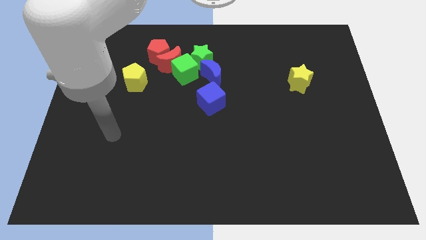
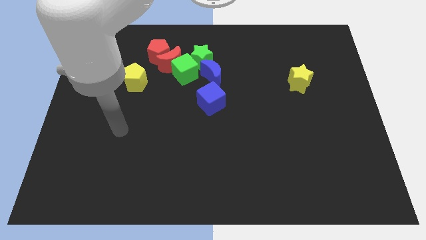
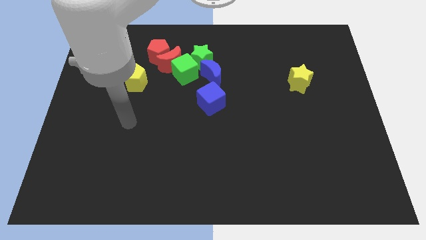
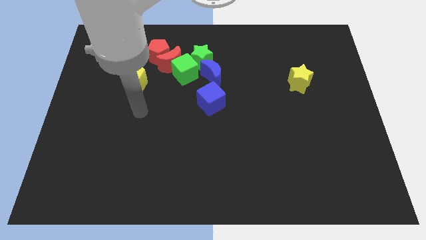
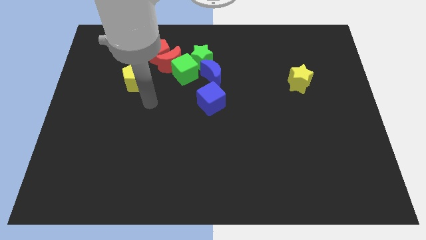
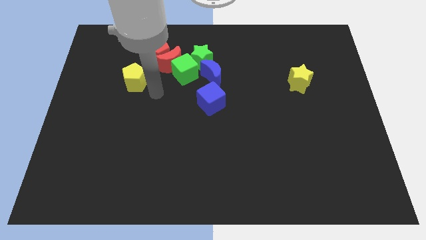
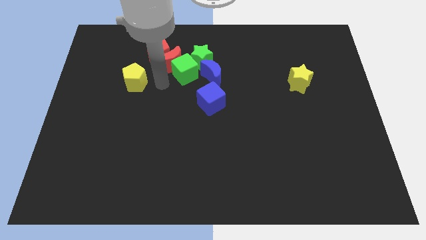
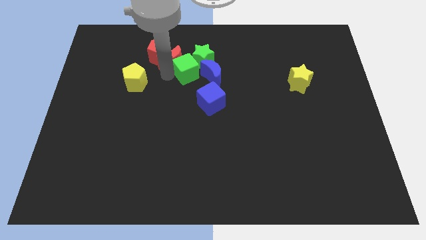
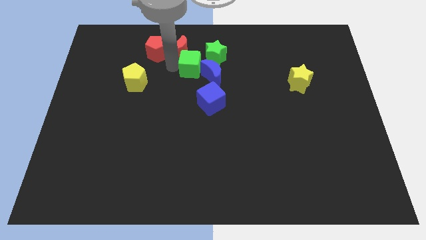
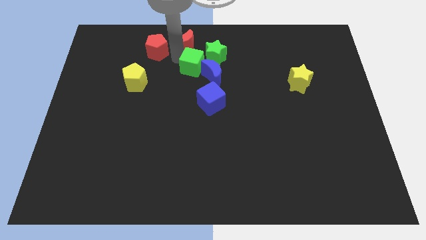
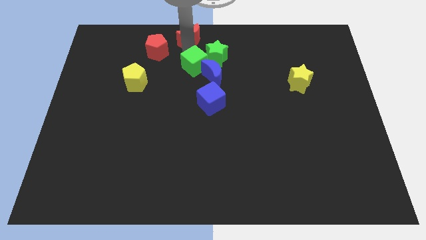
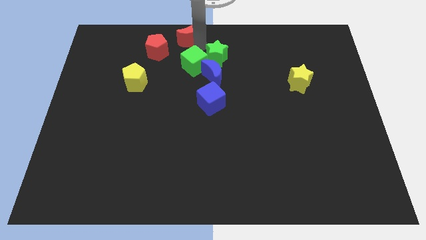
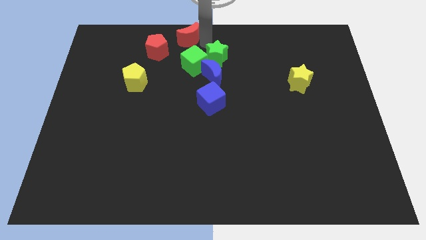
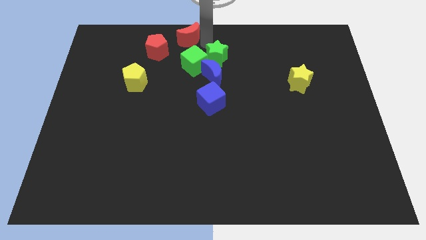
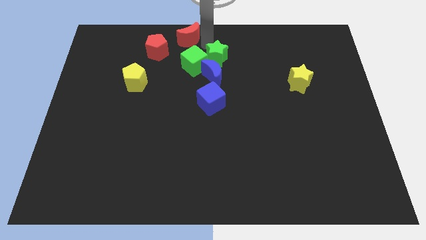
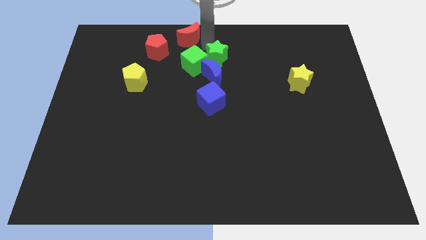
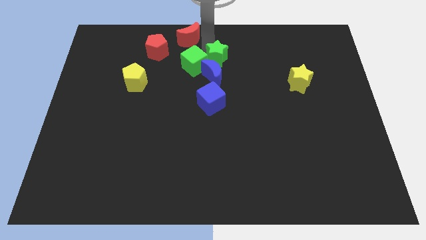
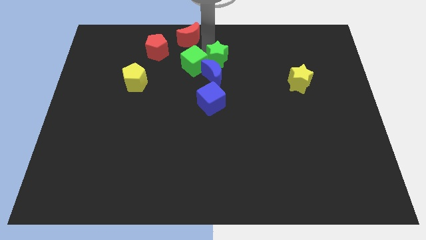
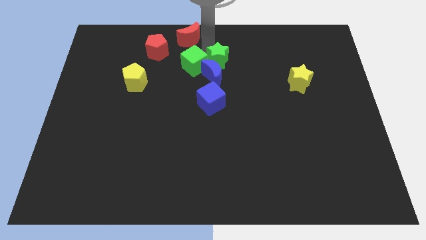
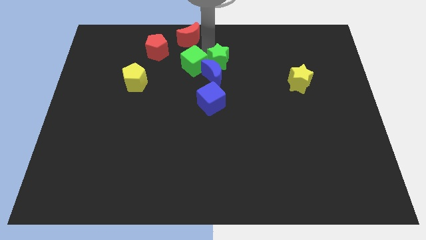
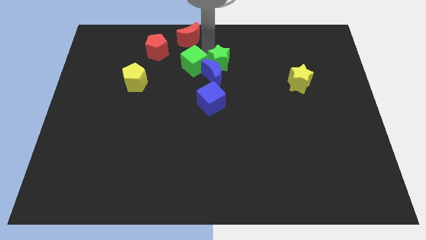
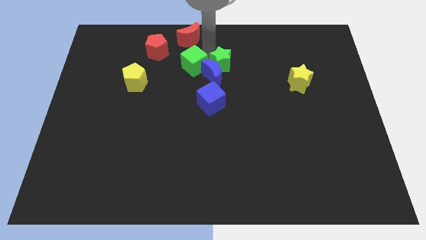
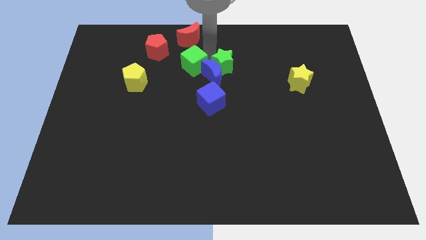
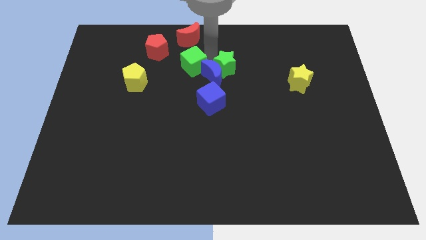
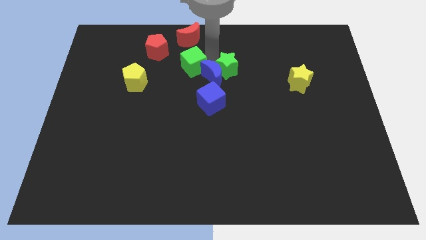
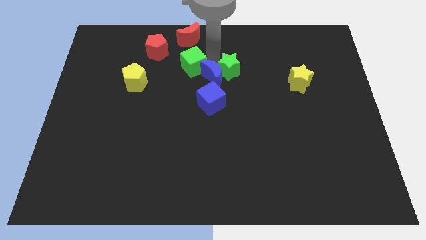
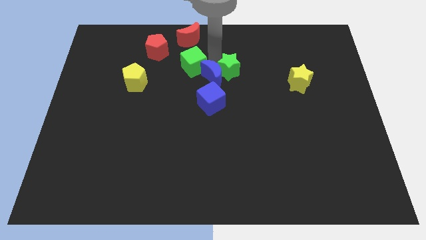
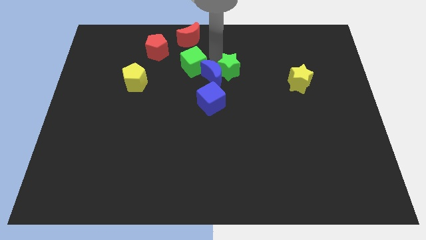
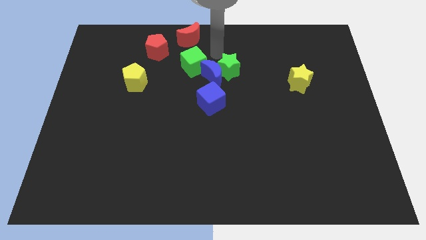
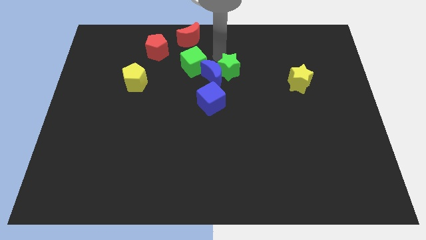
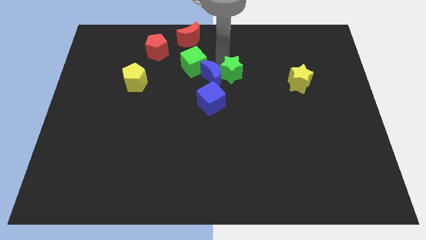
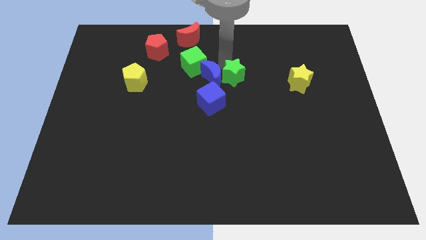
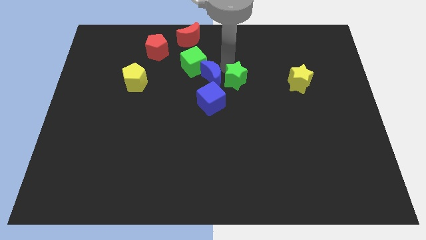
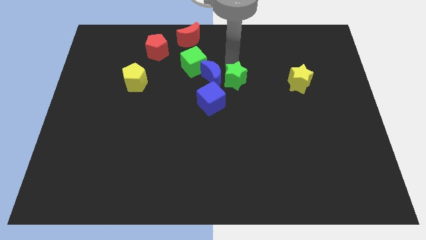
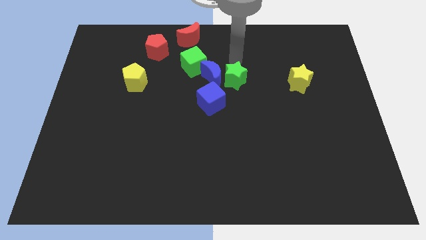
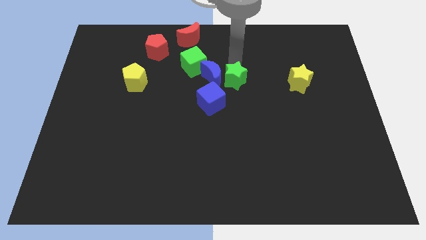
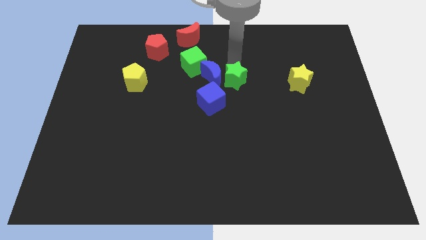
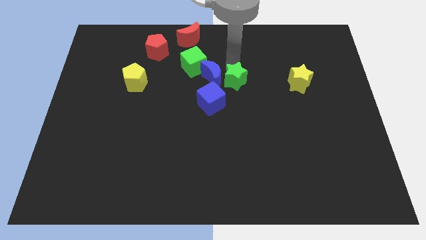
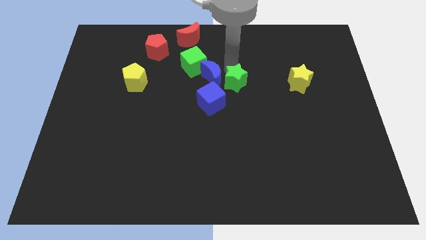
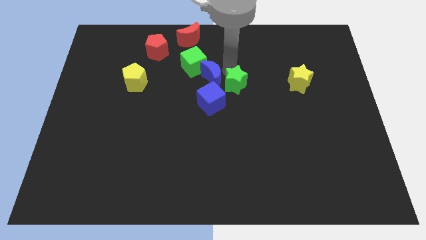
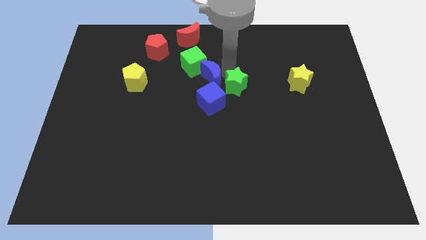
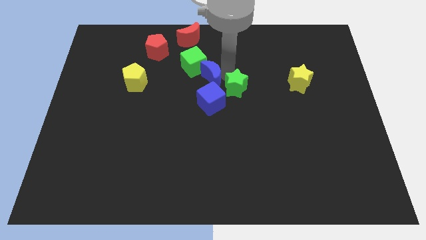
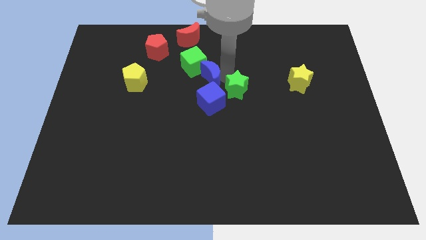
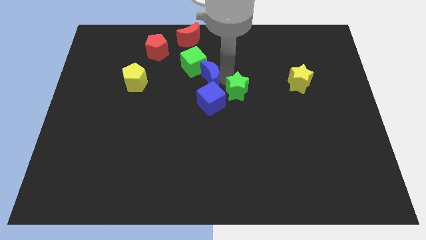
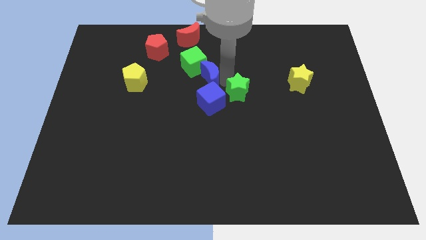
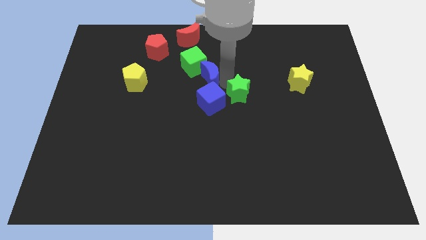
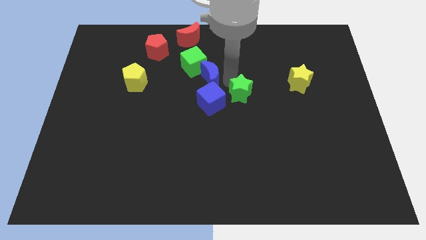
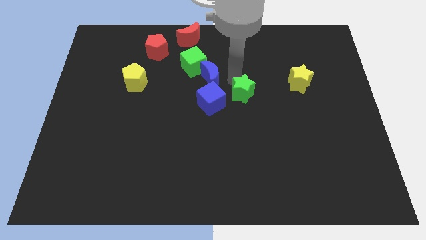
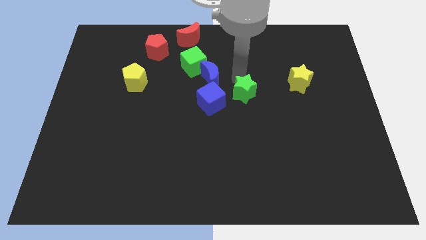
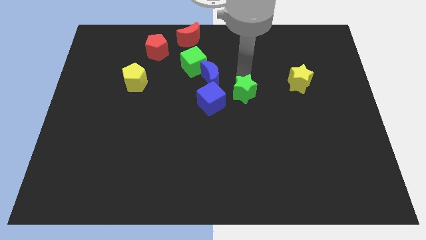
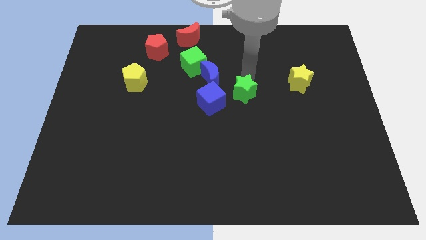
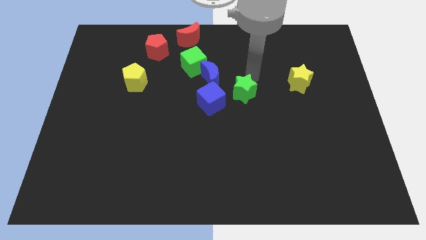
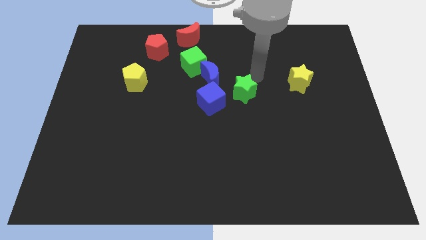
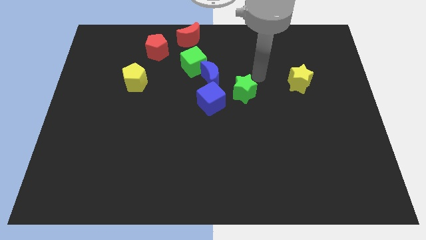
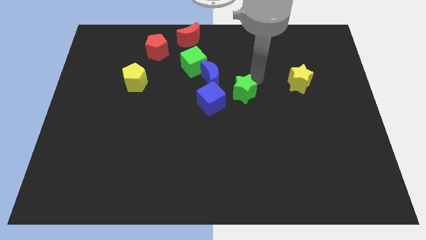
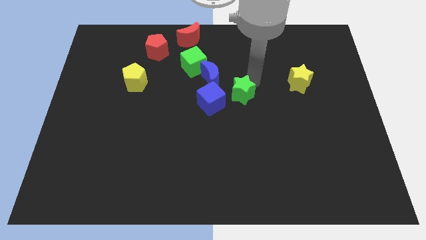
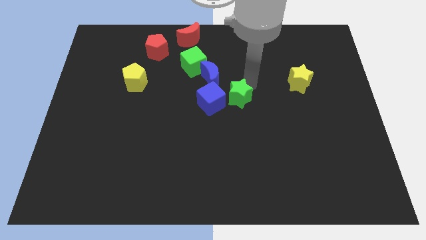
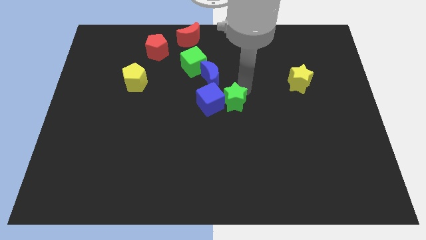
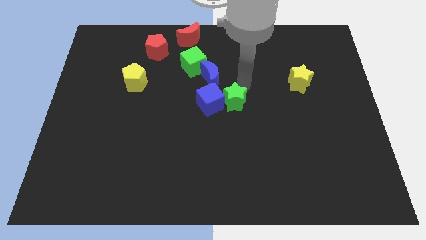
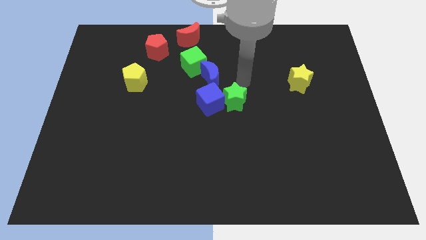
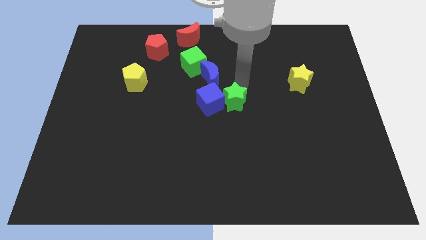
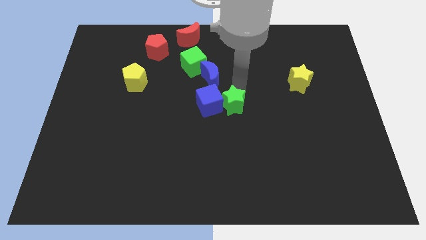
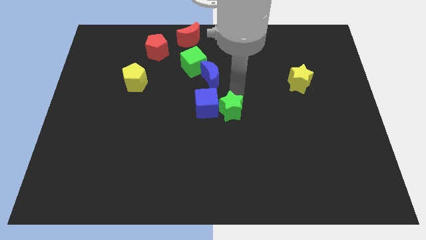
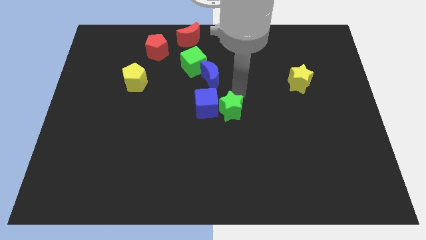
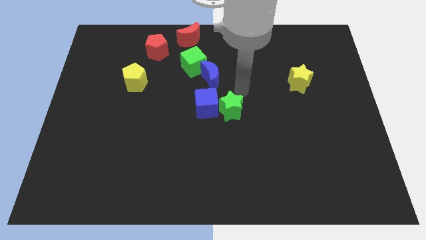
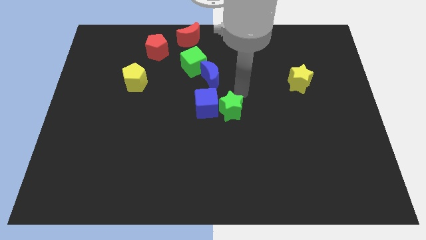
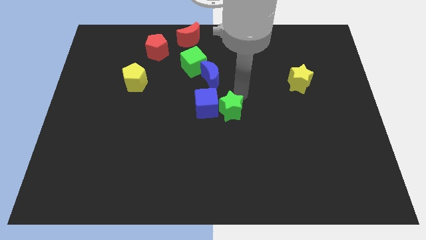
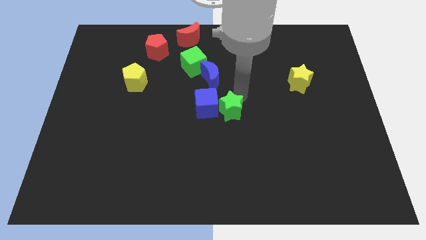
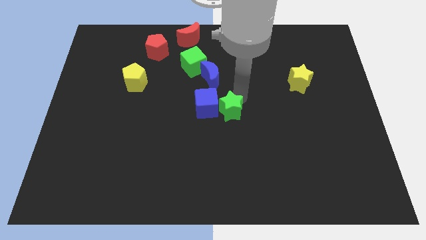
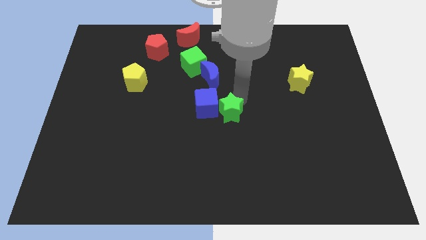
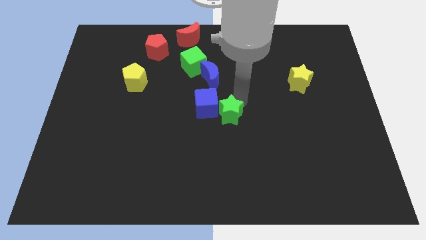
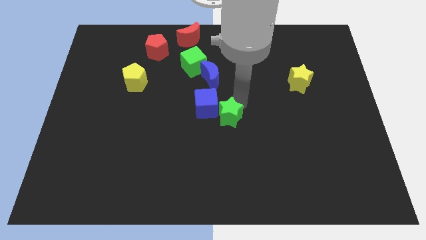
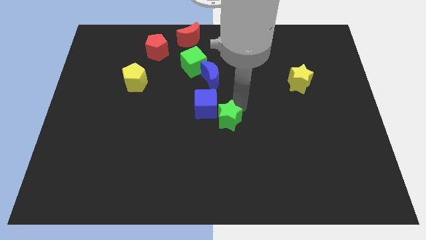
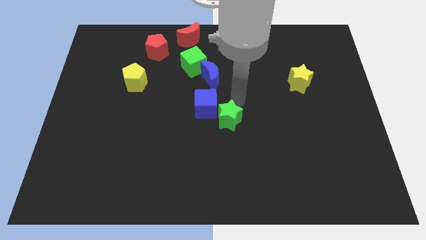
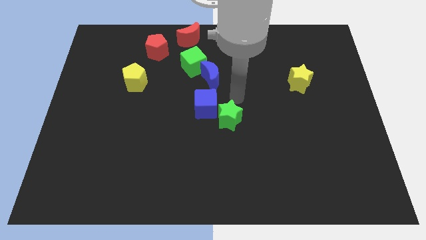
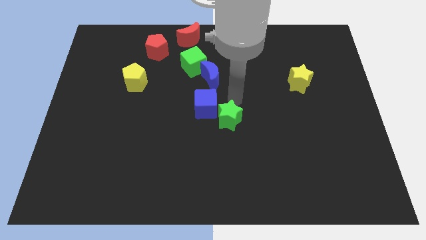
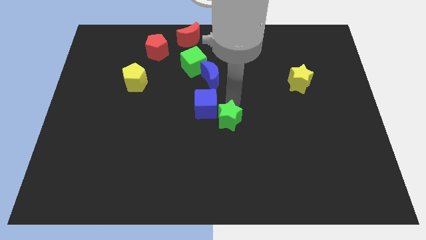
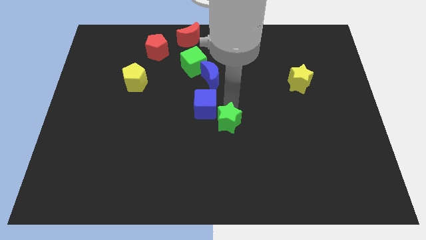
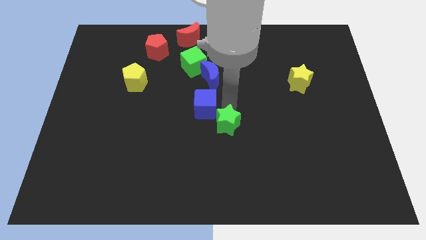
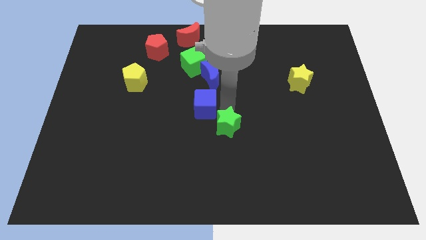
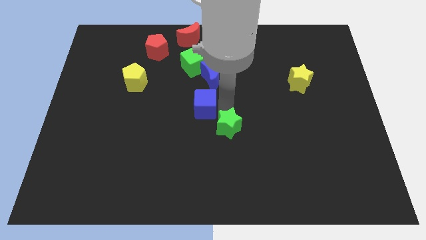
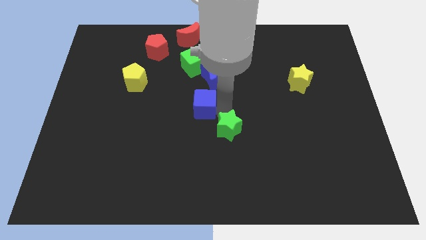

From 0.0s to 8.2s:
slide the green star down
